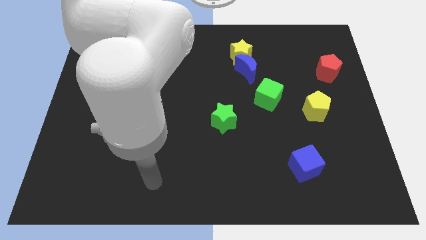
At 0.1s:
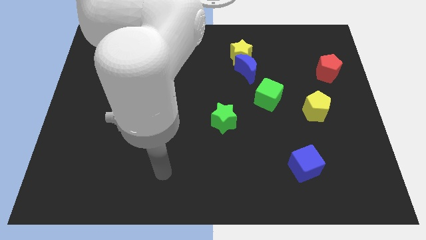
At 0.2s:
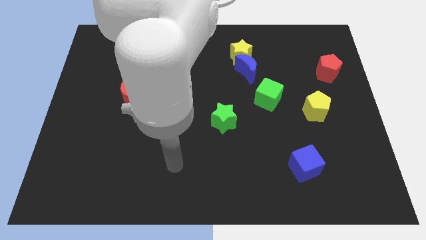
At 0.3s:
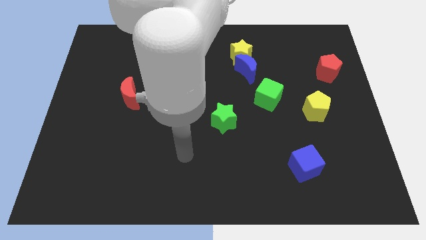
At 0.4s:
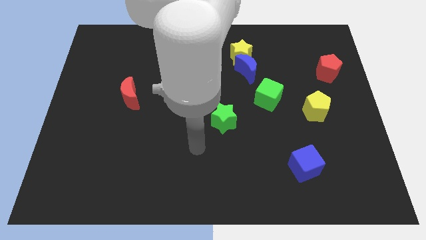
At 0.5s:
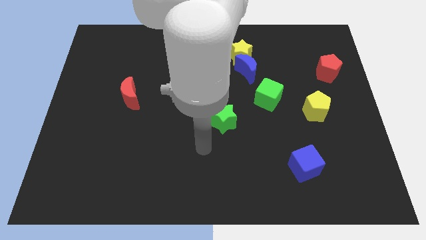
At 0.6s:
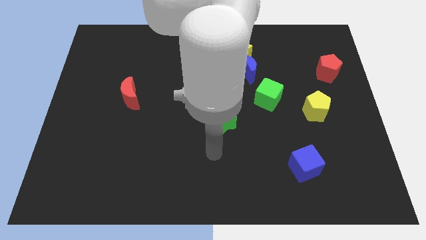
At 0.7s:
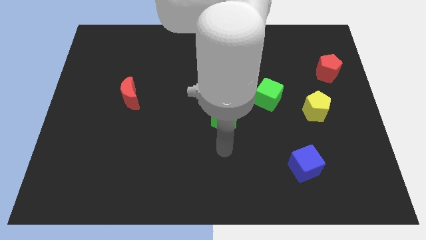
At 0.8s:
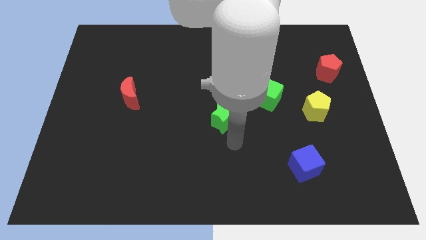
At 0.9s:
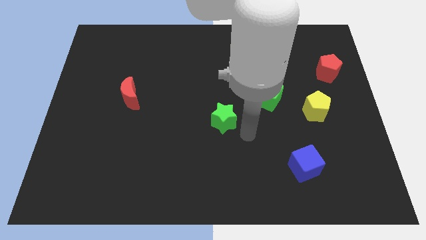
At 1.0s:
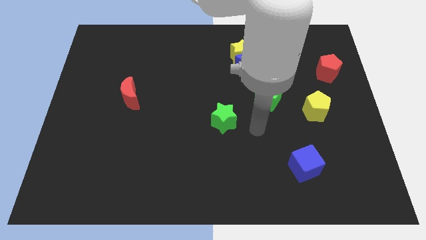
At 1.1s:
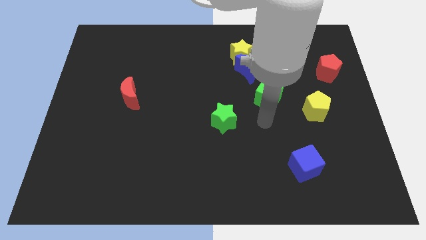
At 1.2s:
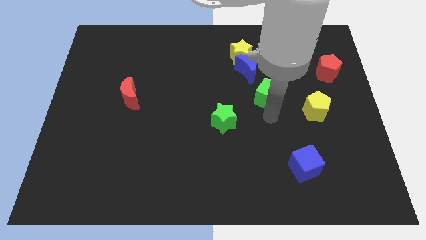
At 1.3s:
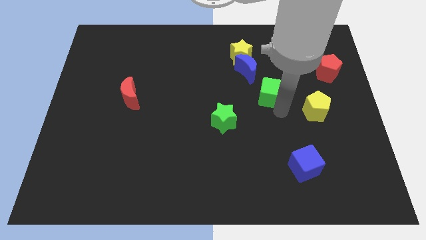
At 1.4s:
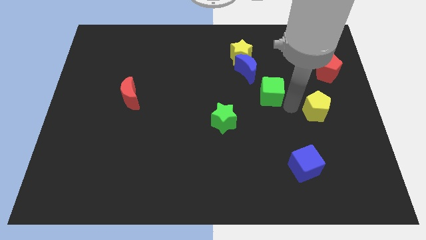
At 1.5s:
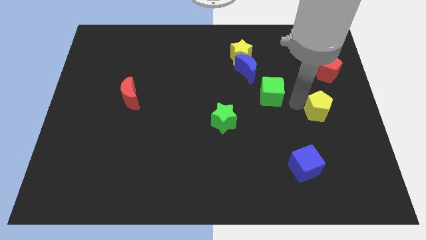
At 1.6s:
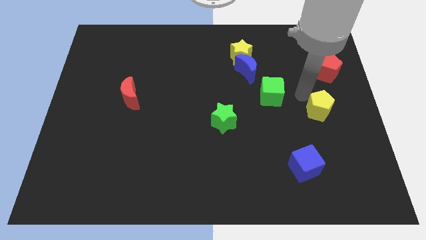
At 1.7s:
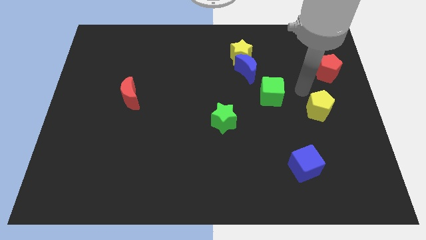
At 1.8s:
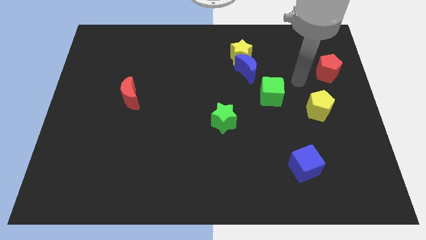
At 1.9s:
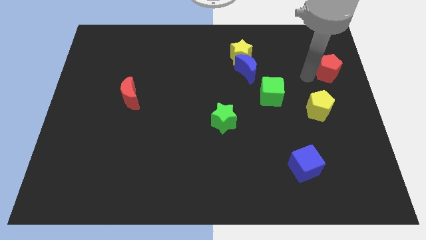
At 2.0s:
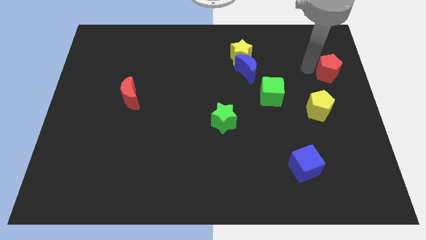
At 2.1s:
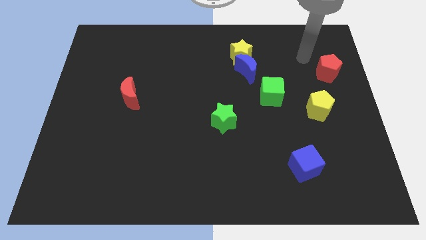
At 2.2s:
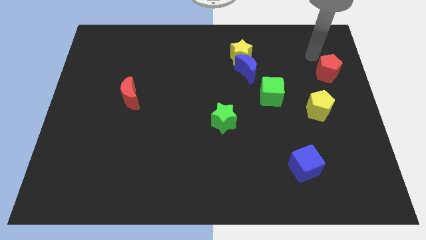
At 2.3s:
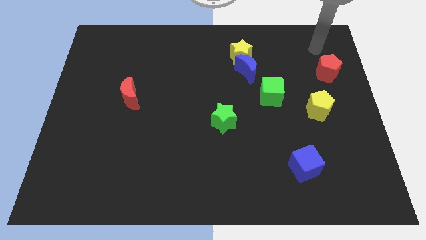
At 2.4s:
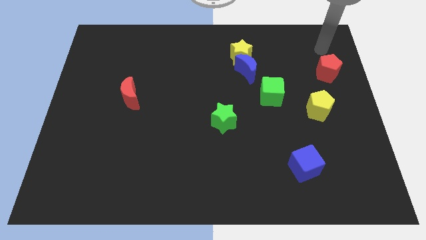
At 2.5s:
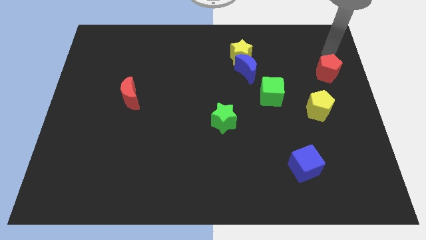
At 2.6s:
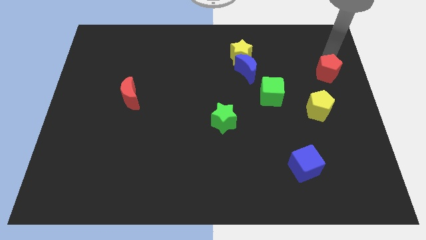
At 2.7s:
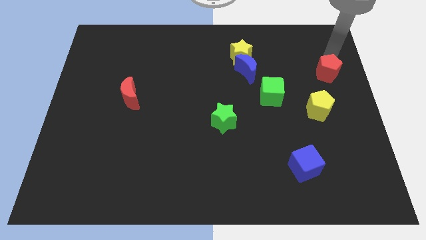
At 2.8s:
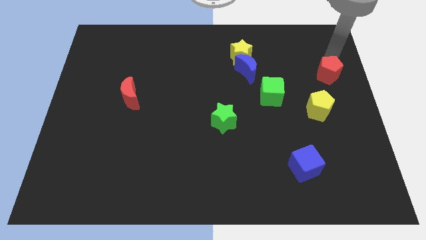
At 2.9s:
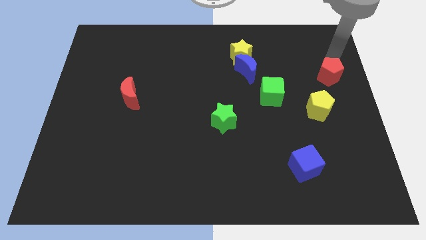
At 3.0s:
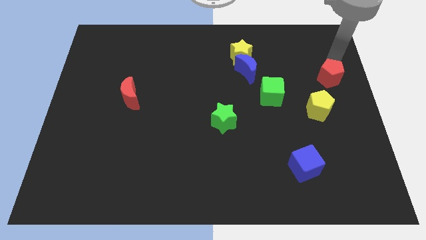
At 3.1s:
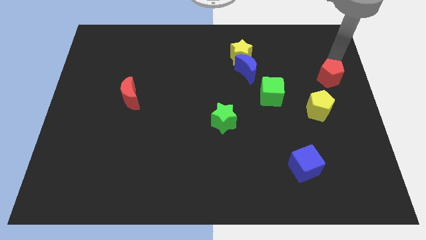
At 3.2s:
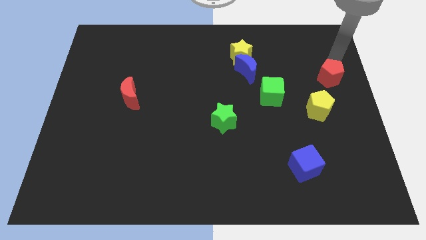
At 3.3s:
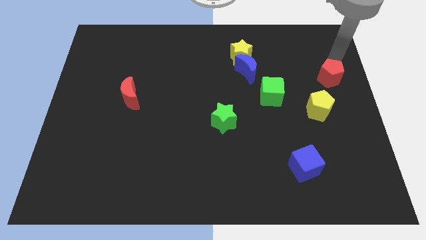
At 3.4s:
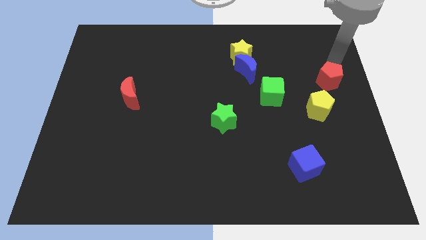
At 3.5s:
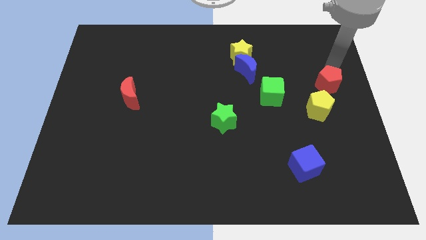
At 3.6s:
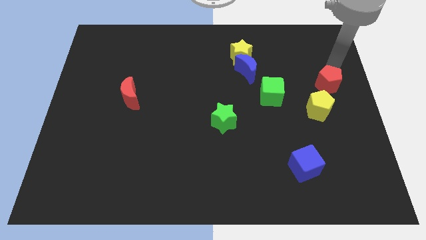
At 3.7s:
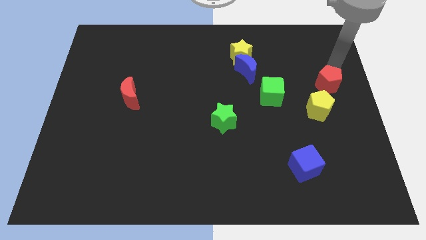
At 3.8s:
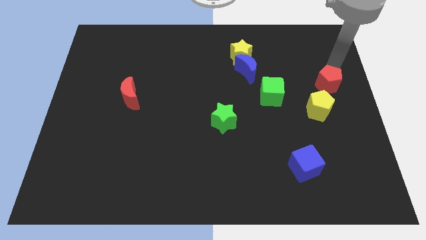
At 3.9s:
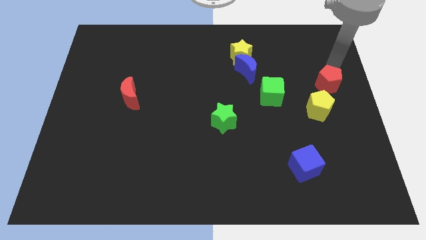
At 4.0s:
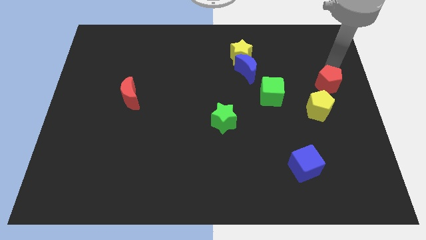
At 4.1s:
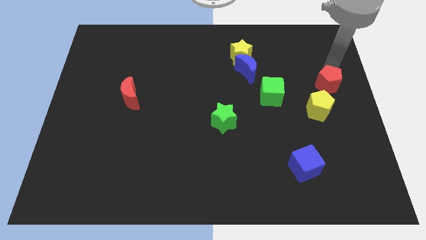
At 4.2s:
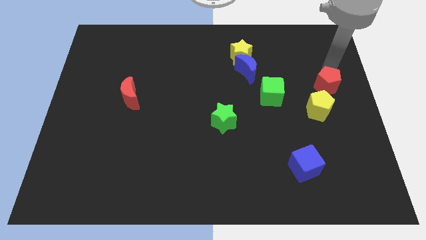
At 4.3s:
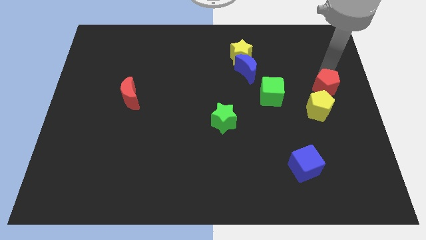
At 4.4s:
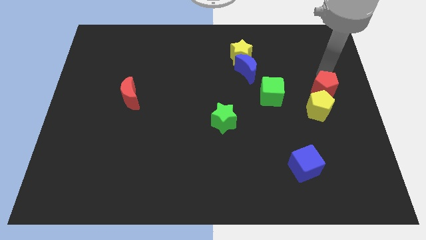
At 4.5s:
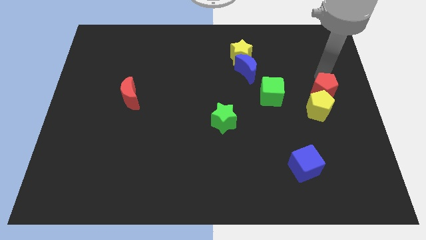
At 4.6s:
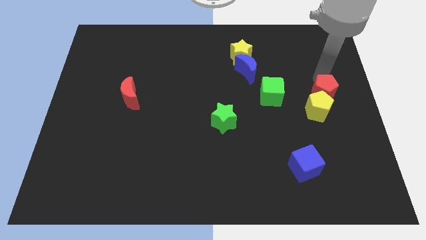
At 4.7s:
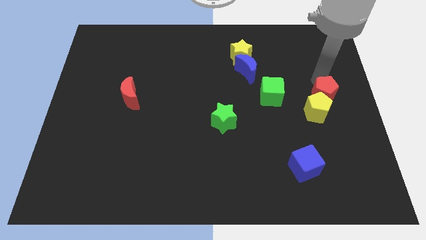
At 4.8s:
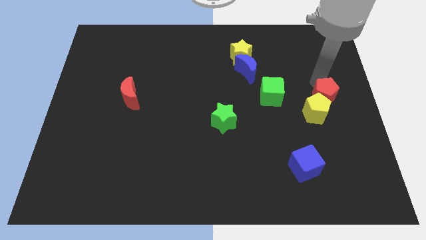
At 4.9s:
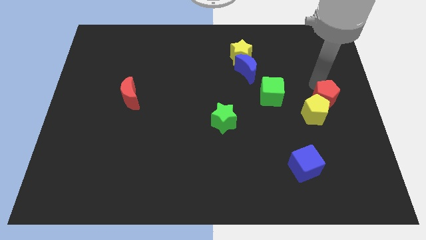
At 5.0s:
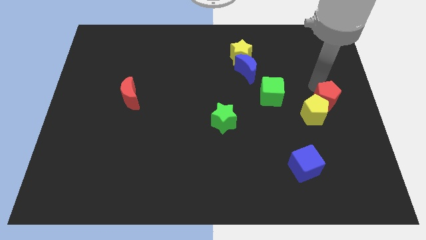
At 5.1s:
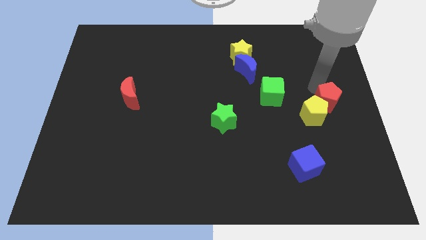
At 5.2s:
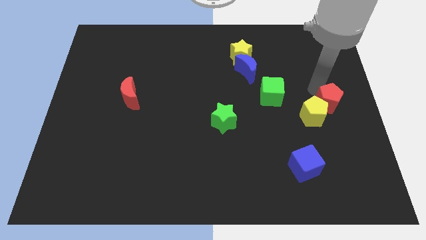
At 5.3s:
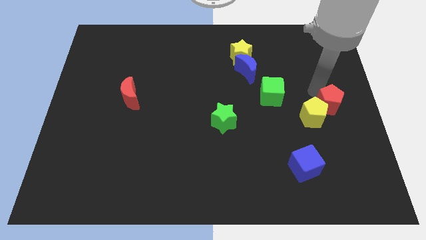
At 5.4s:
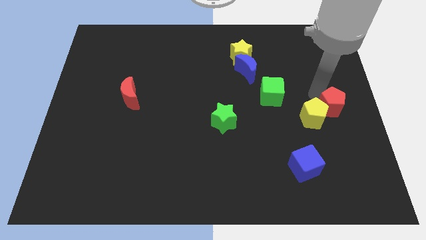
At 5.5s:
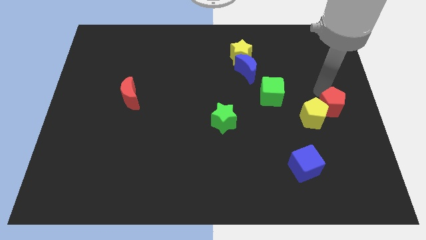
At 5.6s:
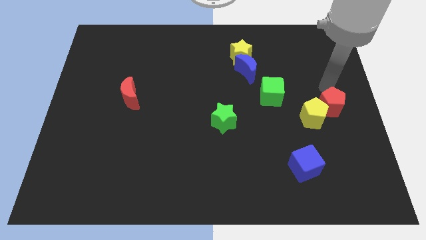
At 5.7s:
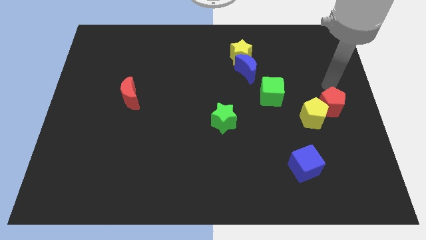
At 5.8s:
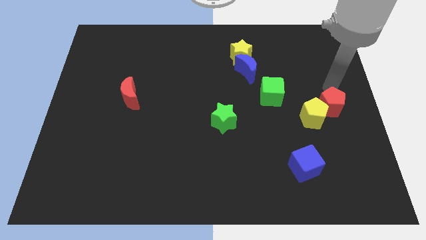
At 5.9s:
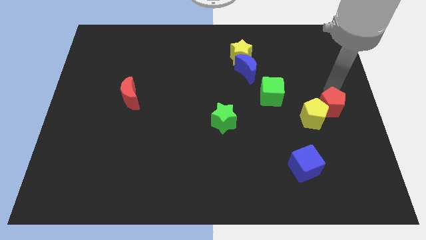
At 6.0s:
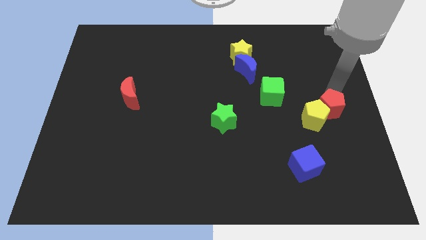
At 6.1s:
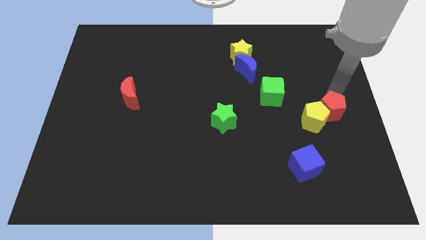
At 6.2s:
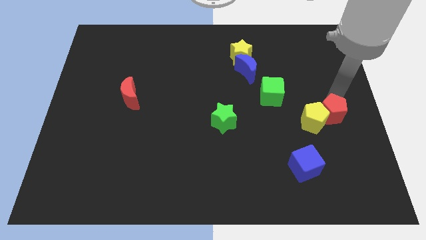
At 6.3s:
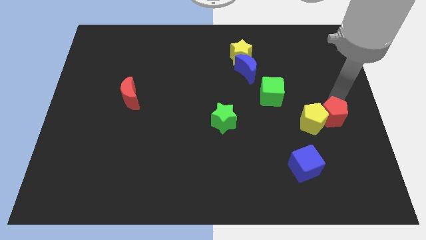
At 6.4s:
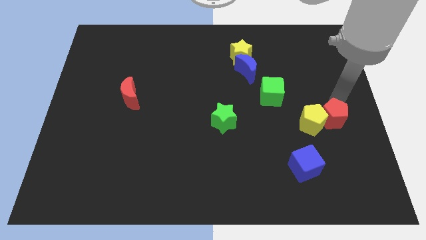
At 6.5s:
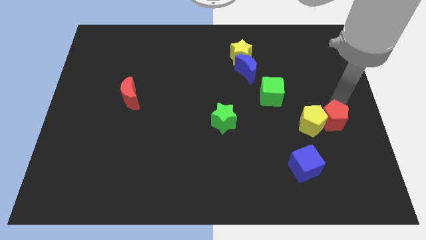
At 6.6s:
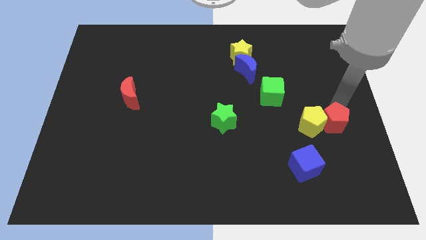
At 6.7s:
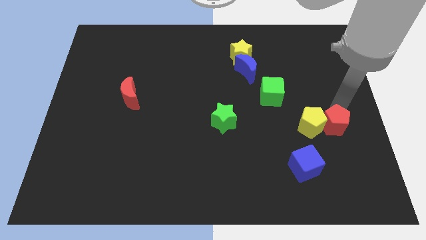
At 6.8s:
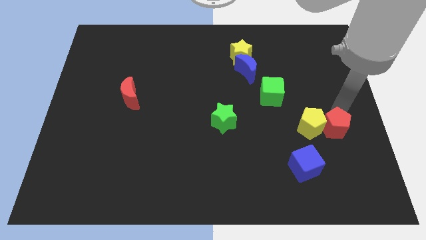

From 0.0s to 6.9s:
slide the red pentagon diagonally up and to the right of the blue cube

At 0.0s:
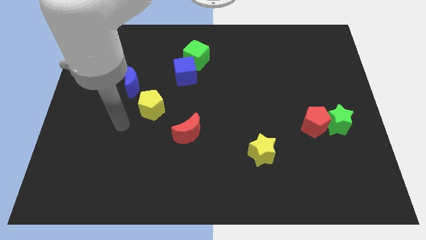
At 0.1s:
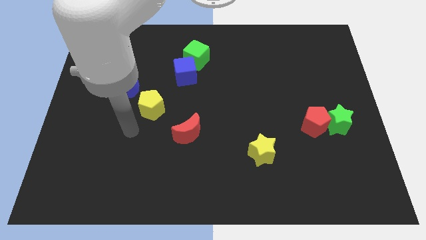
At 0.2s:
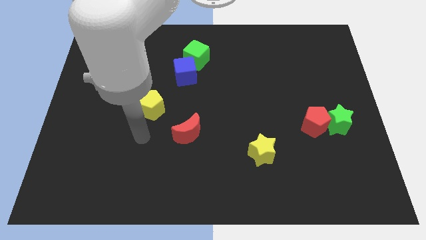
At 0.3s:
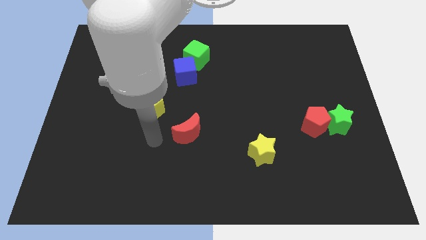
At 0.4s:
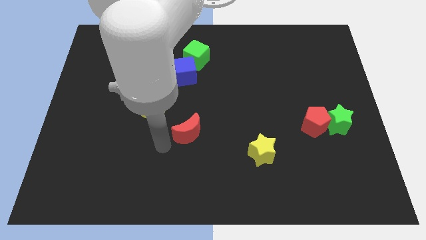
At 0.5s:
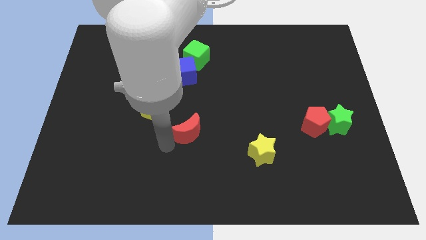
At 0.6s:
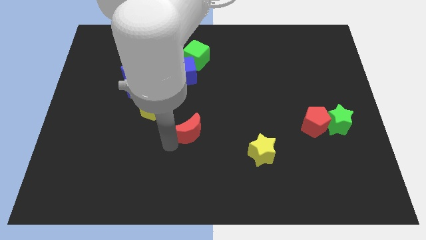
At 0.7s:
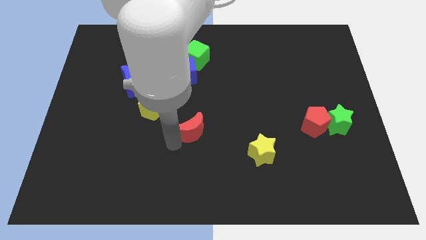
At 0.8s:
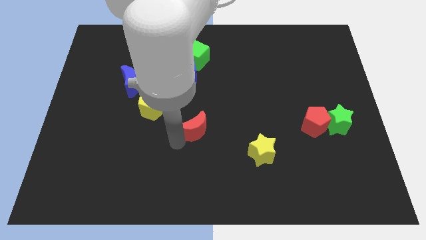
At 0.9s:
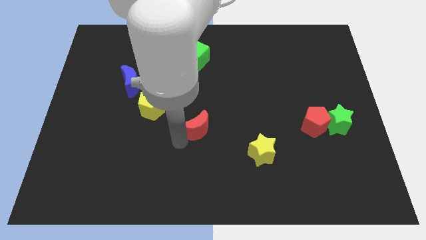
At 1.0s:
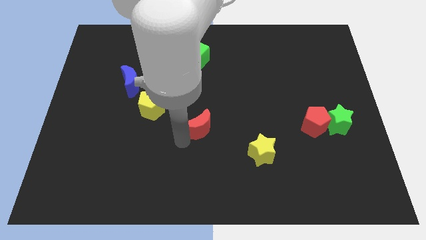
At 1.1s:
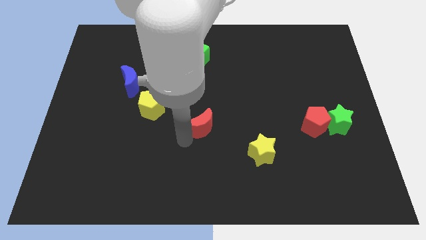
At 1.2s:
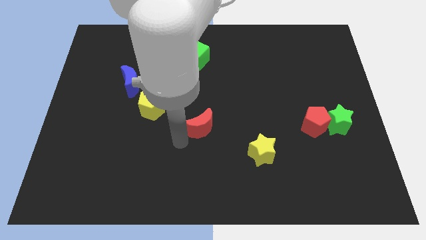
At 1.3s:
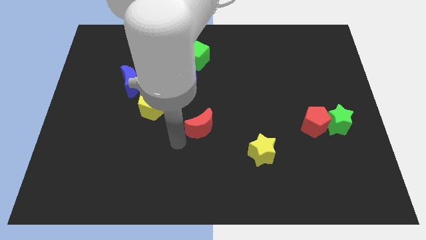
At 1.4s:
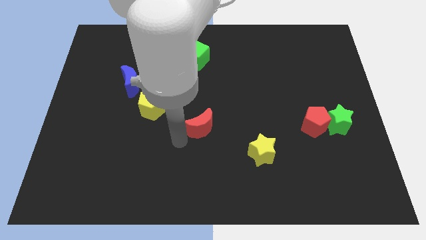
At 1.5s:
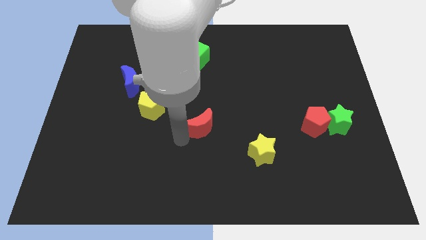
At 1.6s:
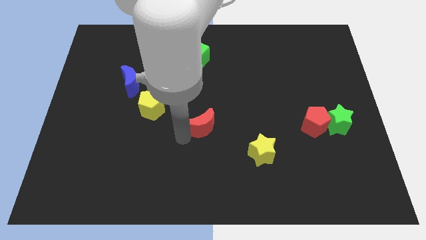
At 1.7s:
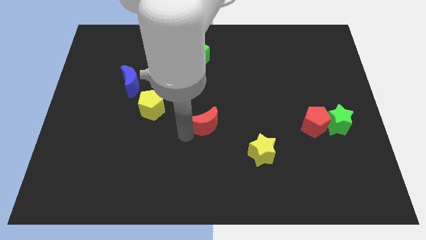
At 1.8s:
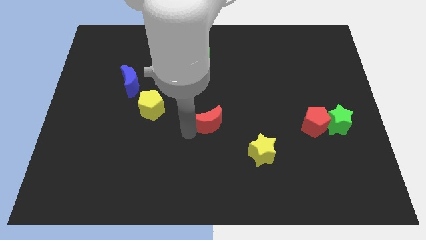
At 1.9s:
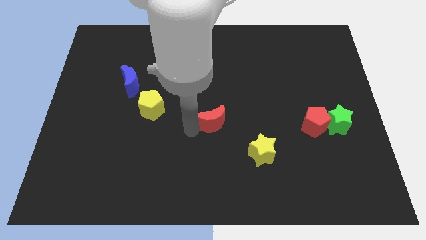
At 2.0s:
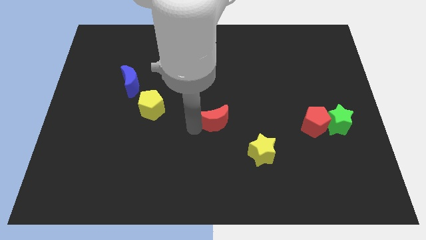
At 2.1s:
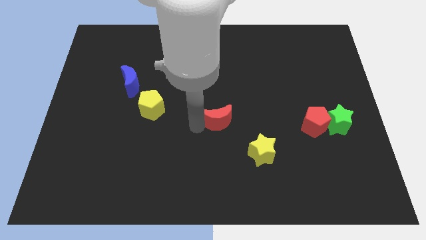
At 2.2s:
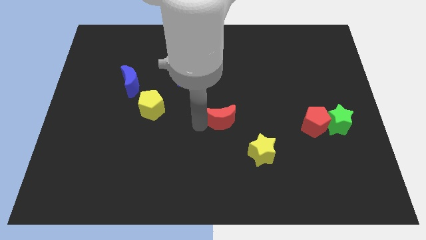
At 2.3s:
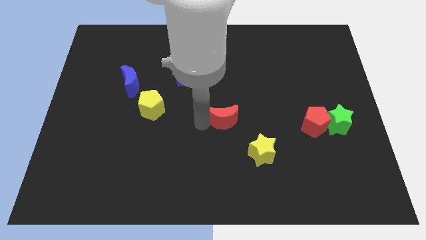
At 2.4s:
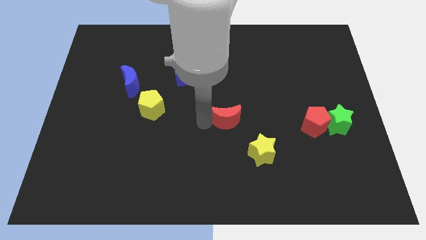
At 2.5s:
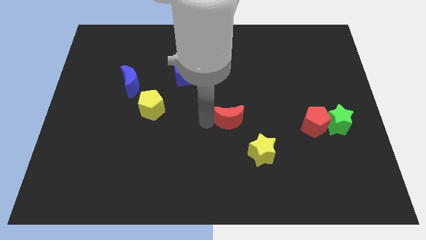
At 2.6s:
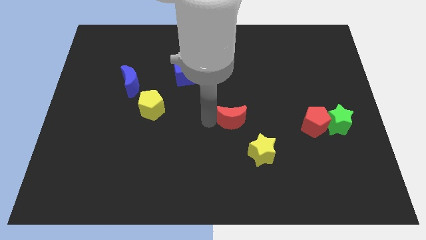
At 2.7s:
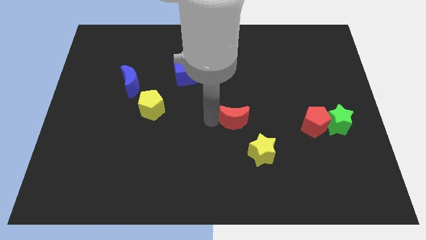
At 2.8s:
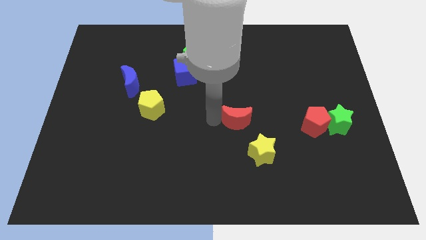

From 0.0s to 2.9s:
move the red moon to the top of the yellow star
